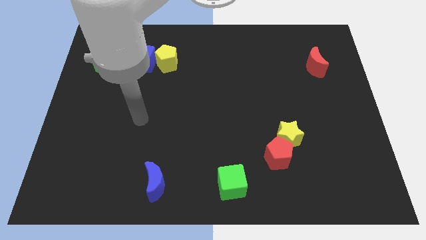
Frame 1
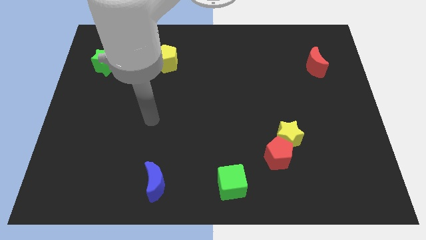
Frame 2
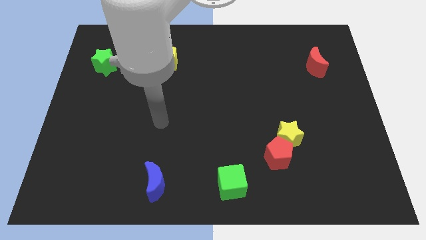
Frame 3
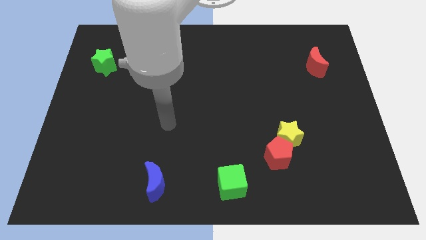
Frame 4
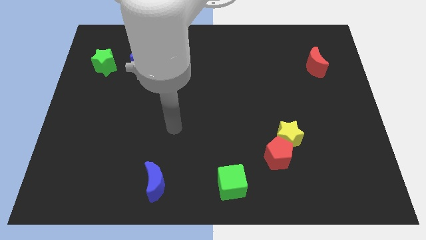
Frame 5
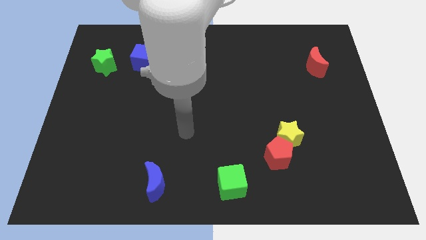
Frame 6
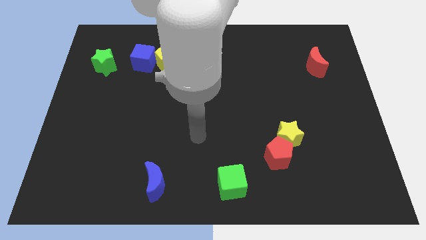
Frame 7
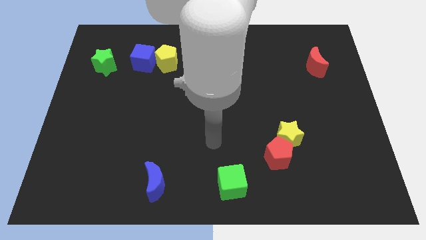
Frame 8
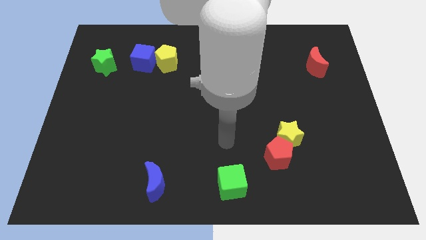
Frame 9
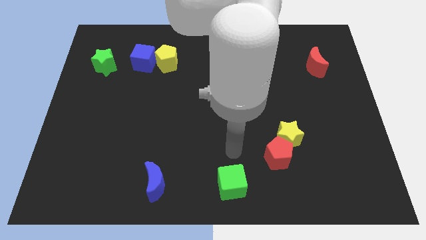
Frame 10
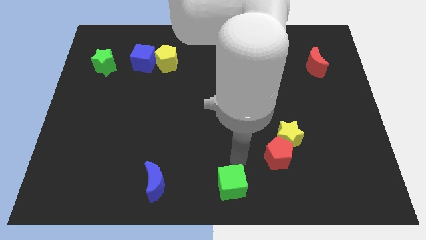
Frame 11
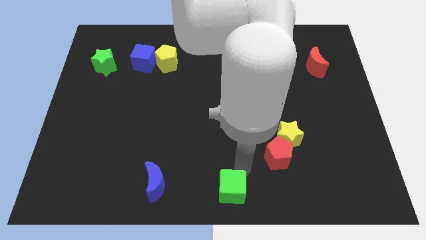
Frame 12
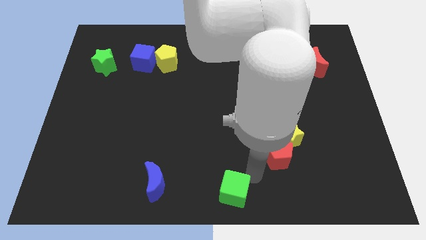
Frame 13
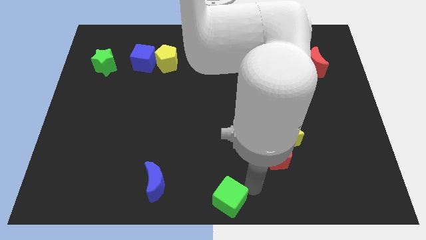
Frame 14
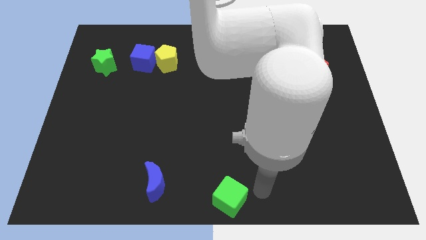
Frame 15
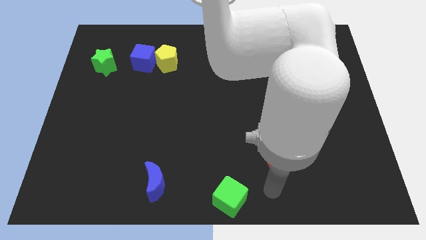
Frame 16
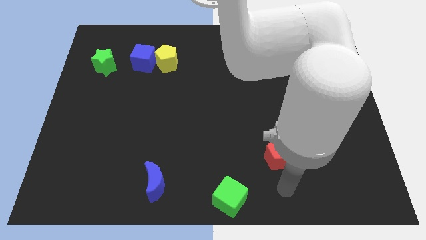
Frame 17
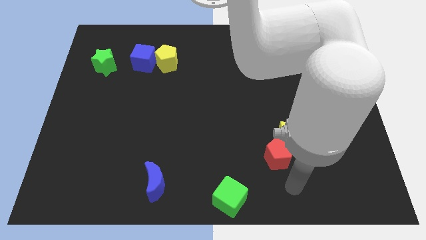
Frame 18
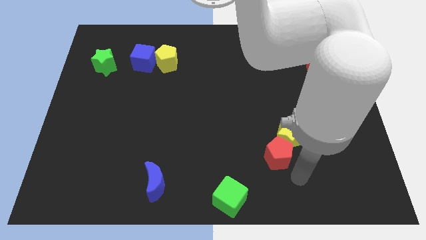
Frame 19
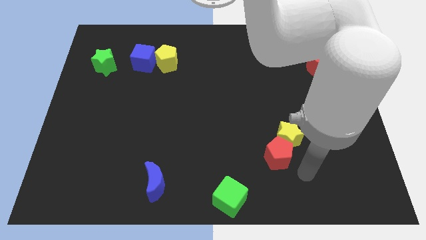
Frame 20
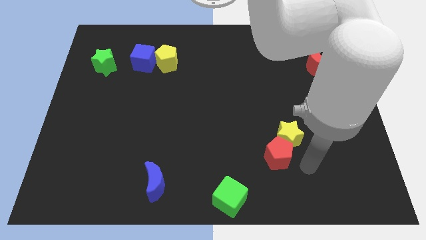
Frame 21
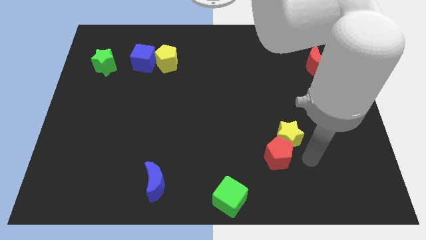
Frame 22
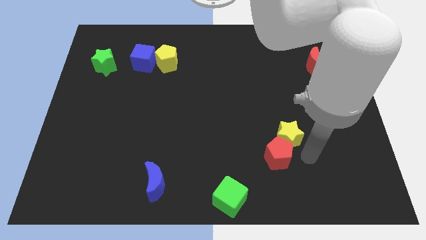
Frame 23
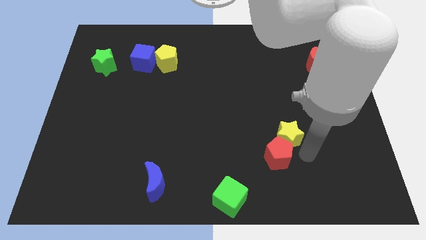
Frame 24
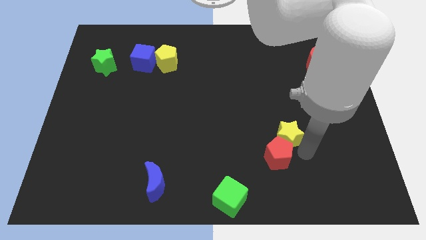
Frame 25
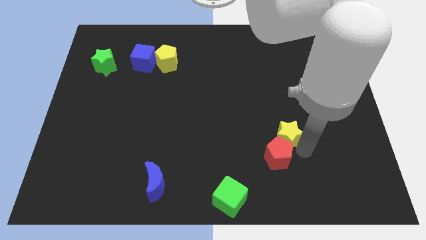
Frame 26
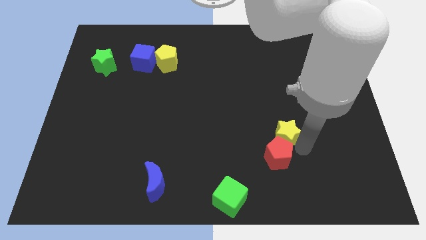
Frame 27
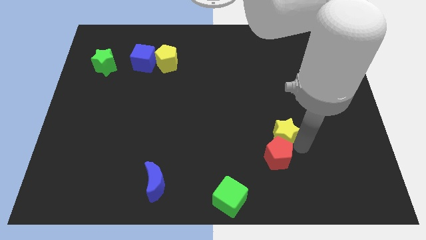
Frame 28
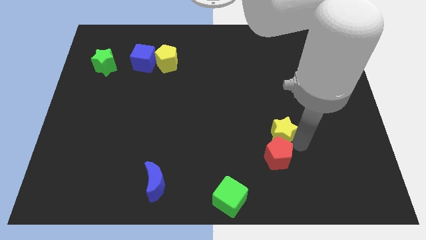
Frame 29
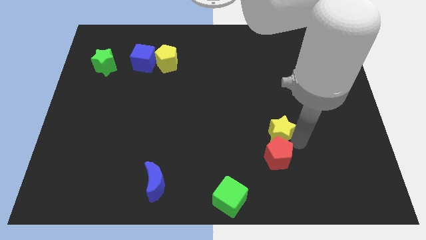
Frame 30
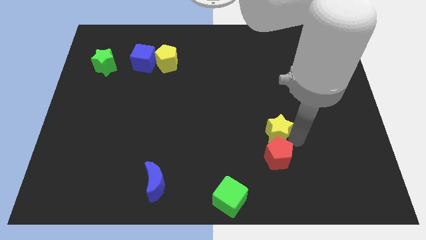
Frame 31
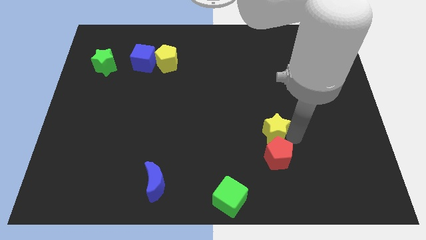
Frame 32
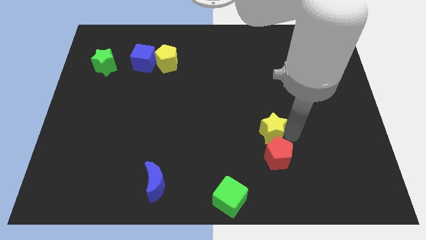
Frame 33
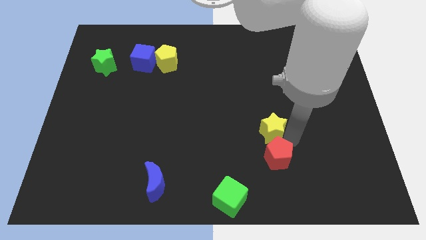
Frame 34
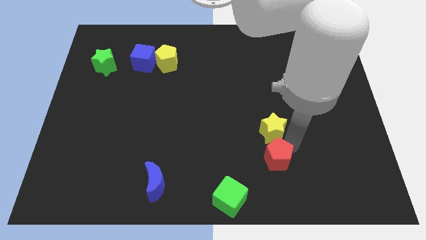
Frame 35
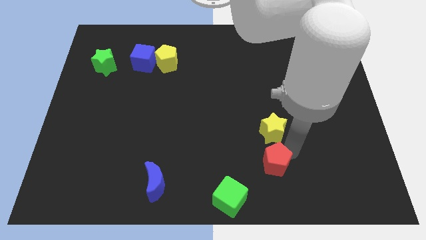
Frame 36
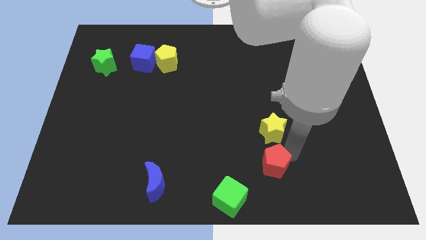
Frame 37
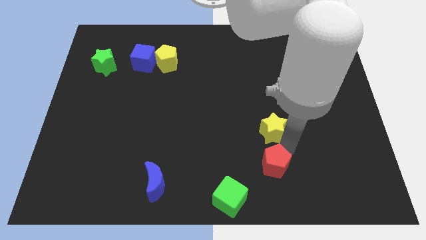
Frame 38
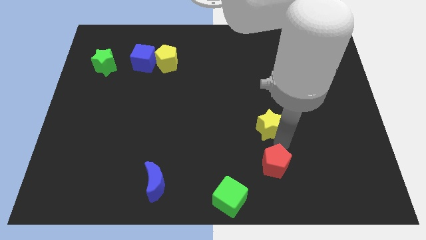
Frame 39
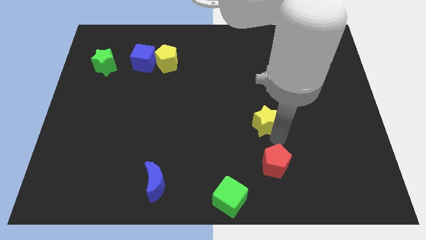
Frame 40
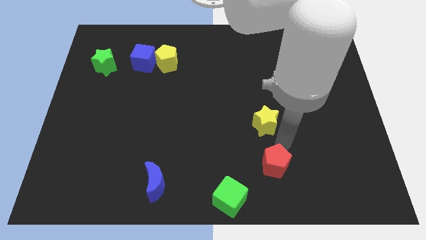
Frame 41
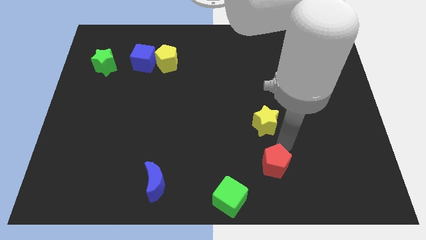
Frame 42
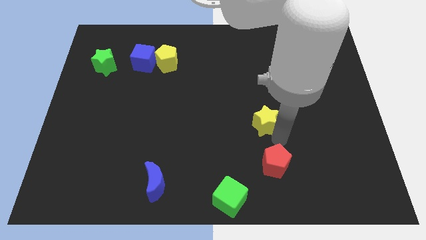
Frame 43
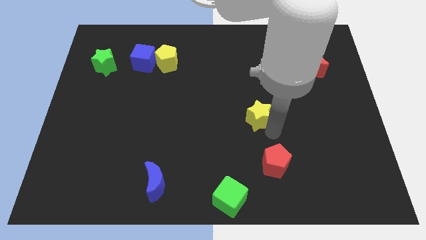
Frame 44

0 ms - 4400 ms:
move the yellow star upwards and left diagonally slightly

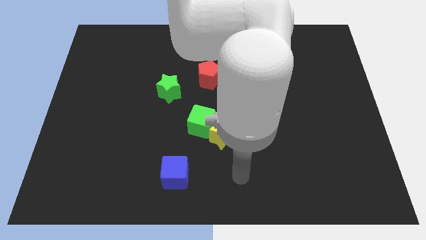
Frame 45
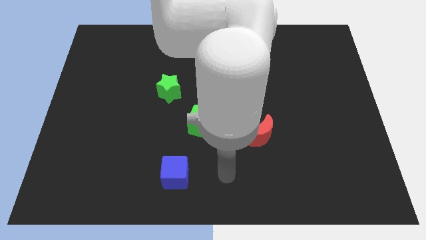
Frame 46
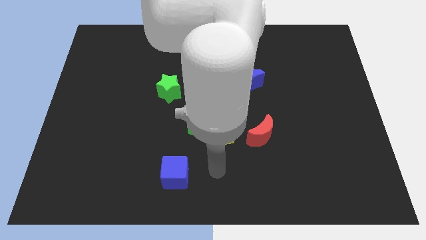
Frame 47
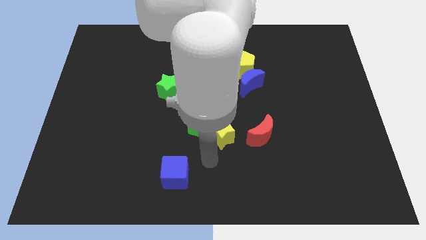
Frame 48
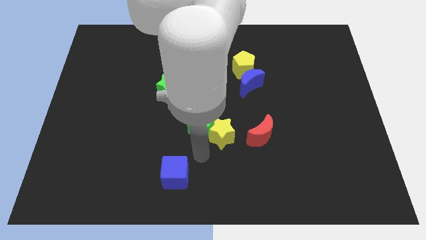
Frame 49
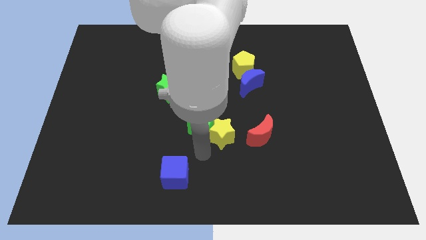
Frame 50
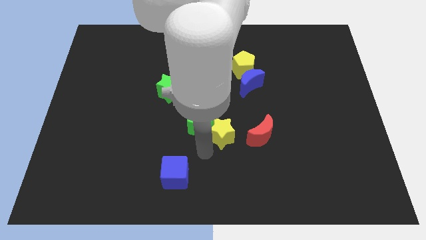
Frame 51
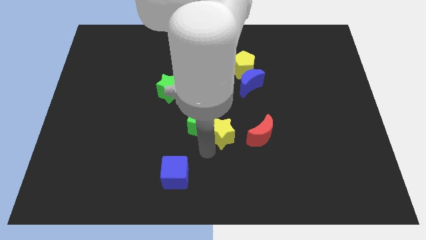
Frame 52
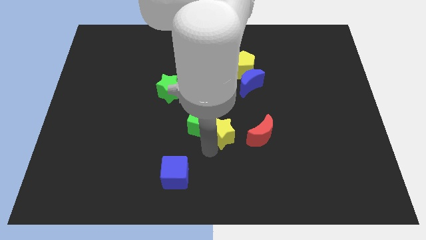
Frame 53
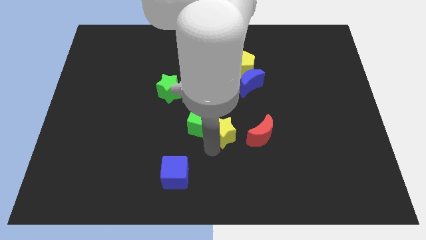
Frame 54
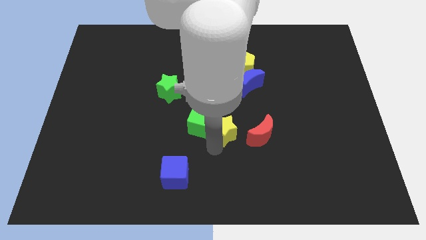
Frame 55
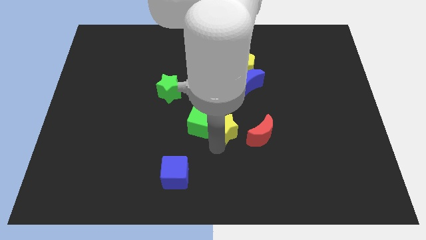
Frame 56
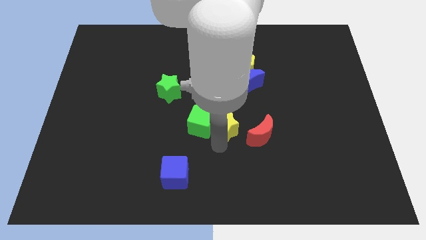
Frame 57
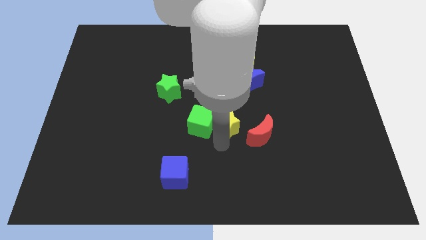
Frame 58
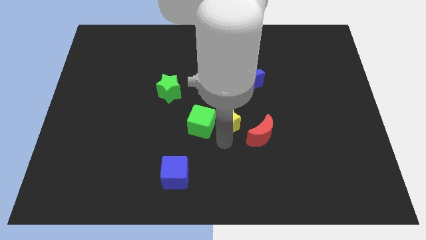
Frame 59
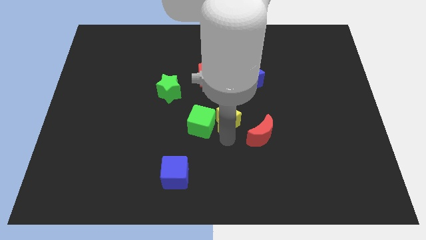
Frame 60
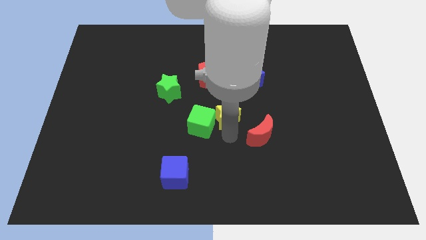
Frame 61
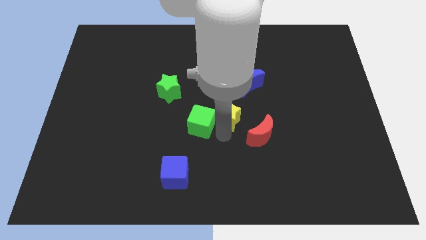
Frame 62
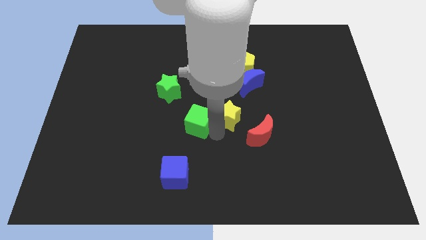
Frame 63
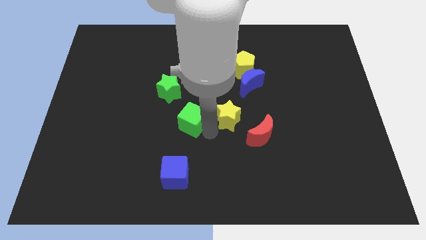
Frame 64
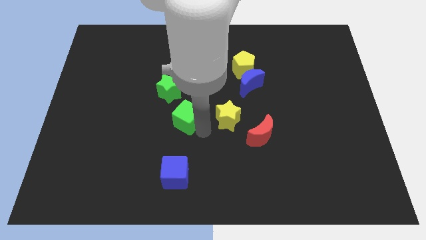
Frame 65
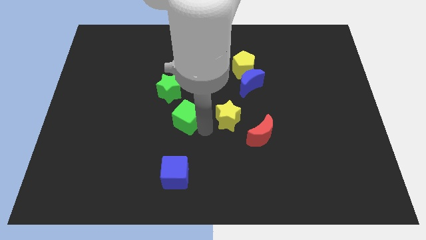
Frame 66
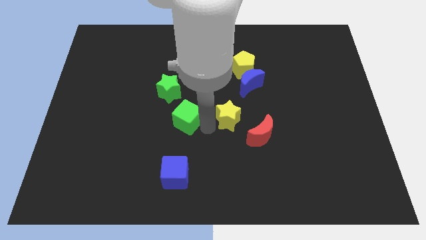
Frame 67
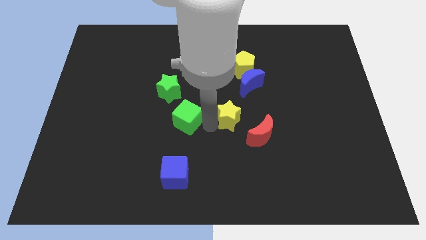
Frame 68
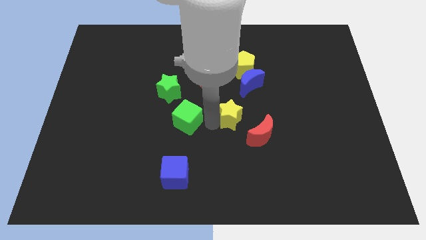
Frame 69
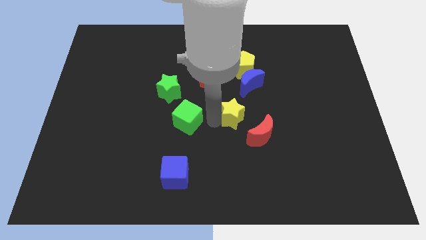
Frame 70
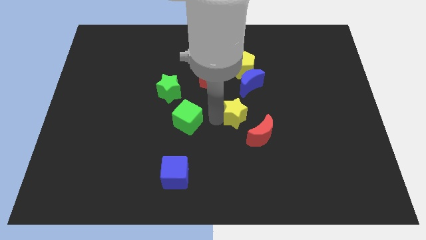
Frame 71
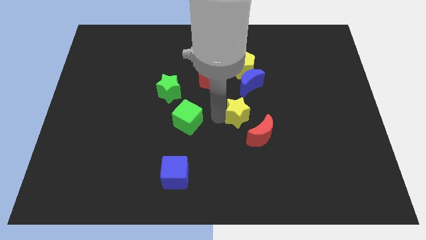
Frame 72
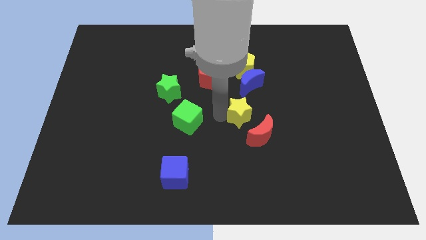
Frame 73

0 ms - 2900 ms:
slide the yellow star upwards and to the right somewhat

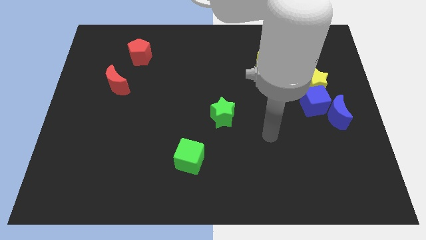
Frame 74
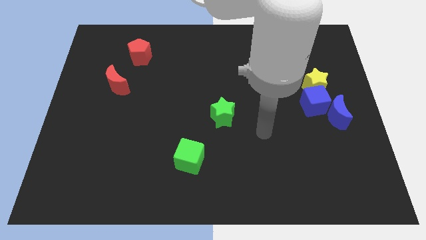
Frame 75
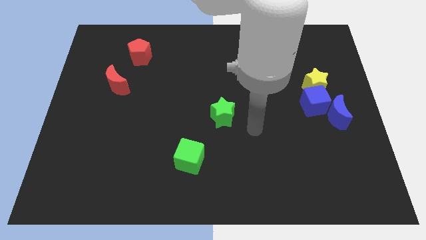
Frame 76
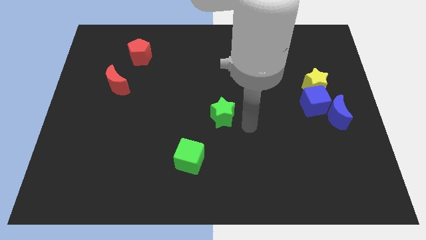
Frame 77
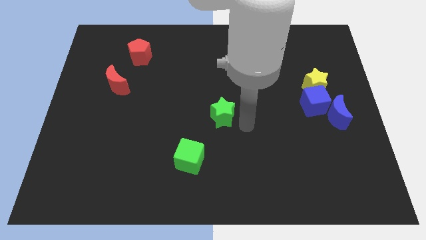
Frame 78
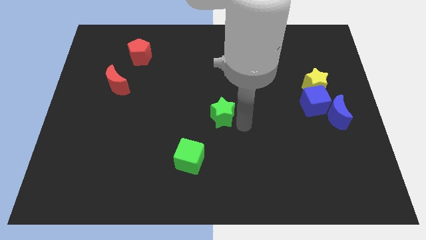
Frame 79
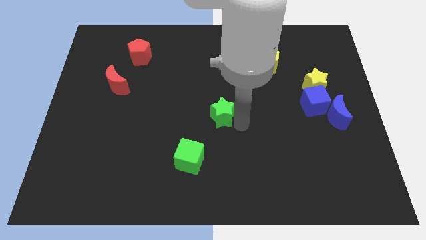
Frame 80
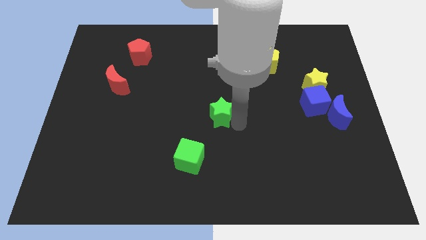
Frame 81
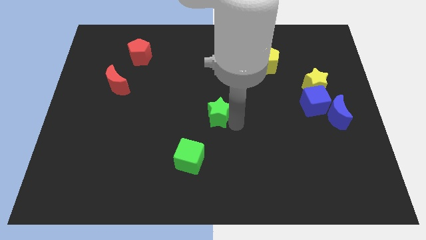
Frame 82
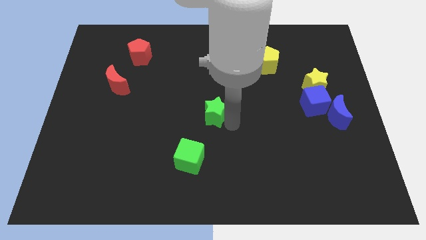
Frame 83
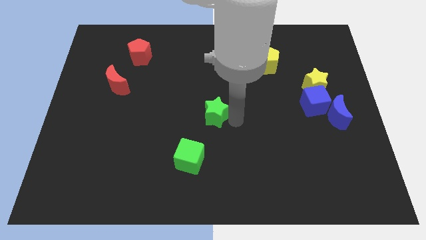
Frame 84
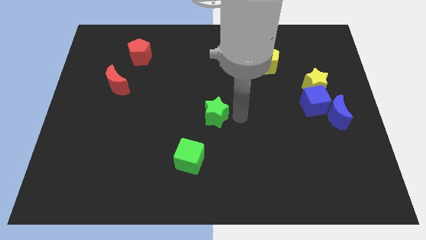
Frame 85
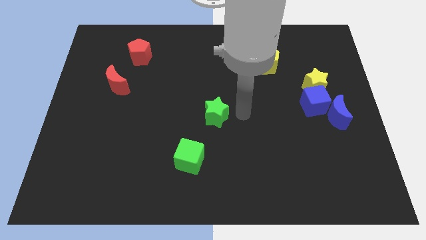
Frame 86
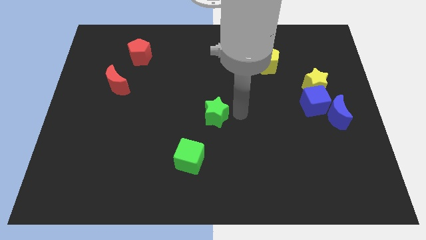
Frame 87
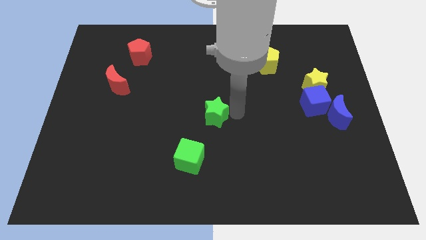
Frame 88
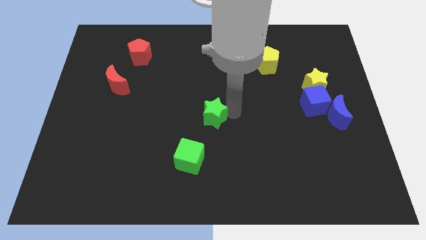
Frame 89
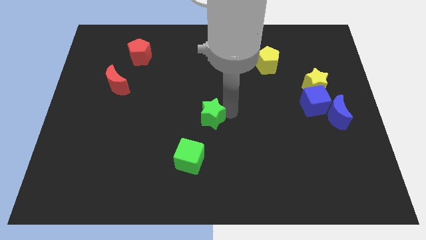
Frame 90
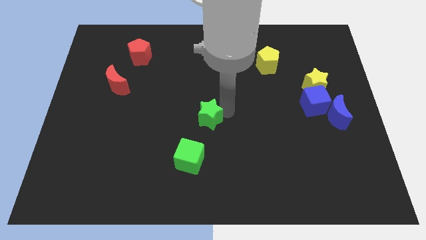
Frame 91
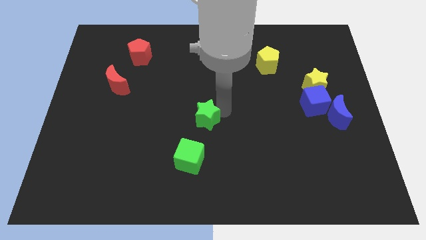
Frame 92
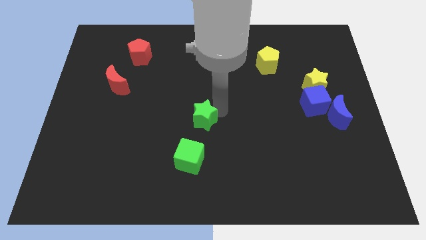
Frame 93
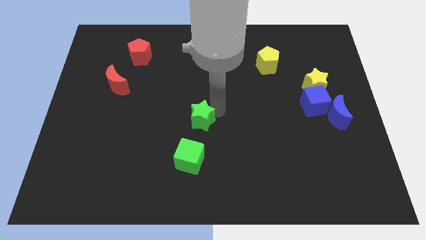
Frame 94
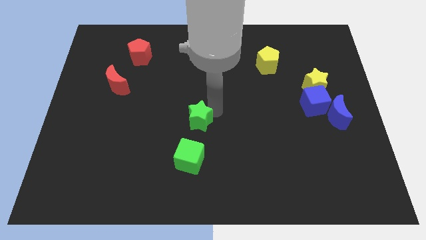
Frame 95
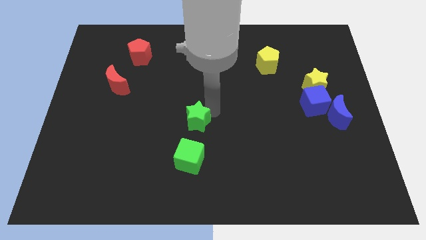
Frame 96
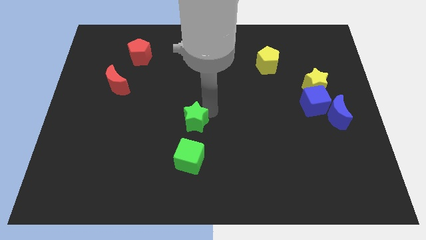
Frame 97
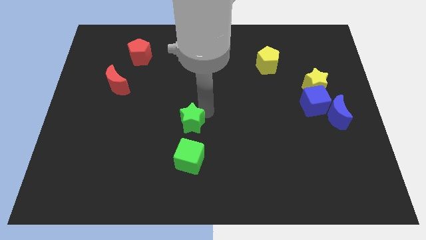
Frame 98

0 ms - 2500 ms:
slide the green star left a little
